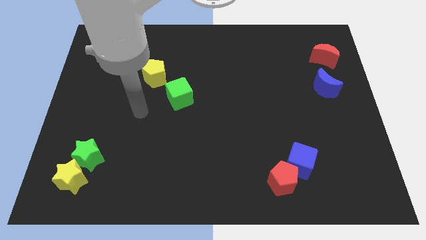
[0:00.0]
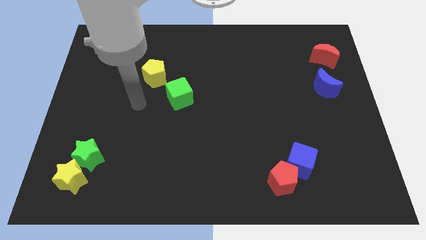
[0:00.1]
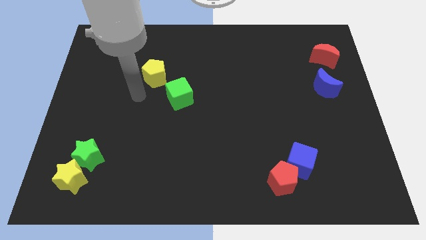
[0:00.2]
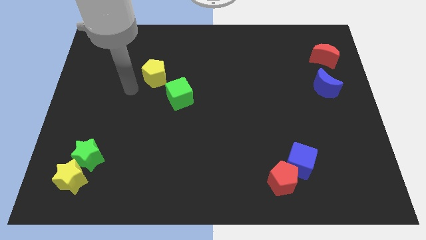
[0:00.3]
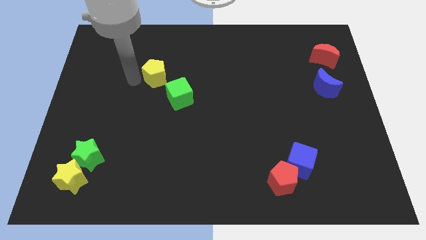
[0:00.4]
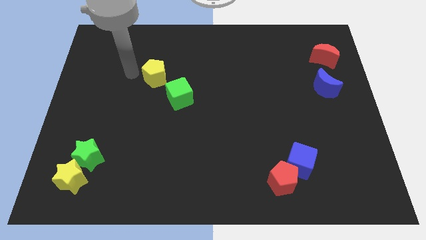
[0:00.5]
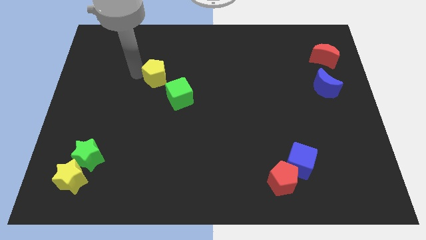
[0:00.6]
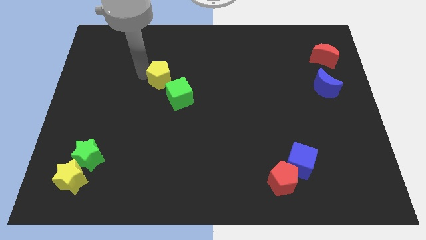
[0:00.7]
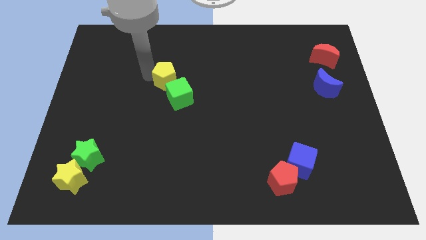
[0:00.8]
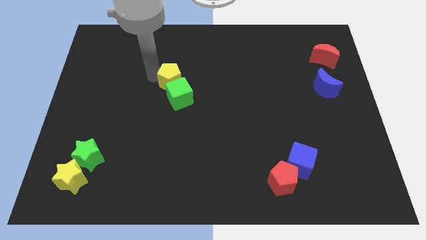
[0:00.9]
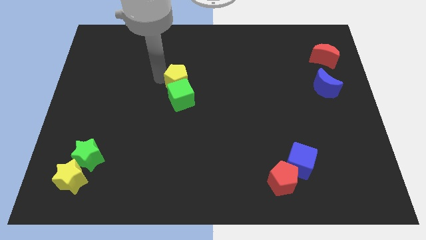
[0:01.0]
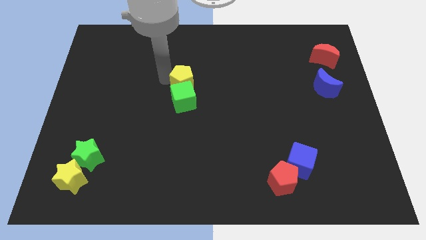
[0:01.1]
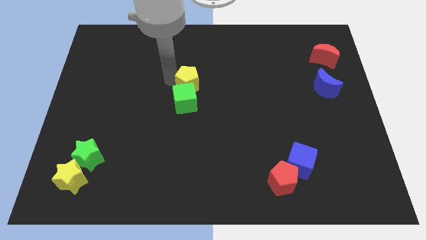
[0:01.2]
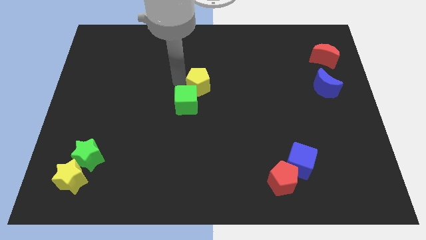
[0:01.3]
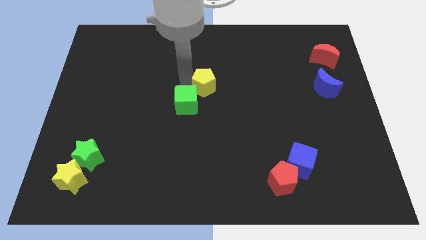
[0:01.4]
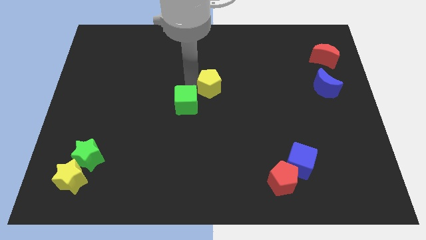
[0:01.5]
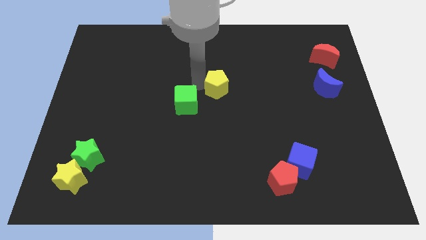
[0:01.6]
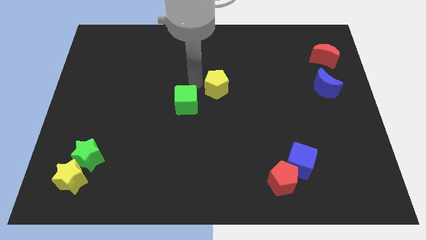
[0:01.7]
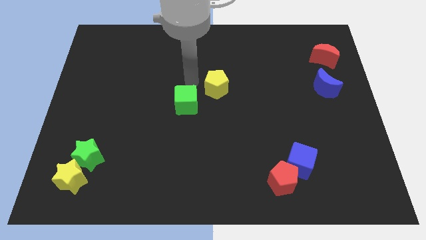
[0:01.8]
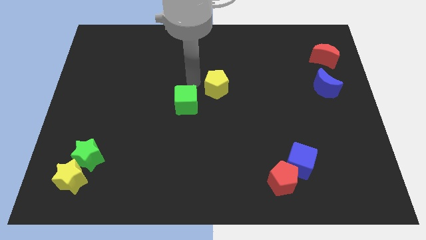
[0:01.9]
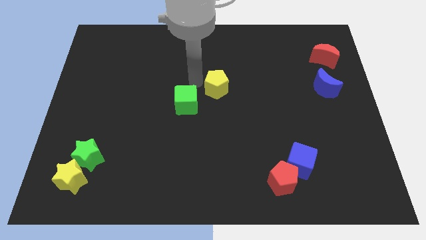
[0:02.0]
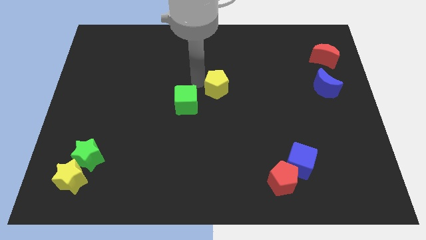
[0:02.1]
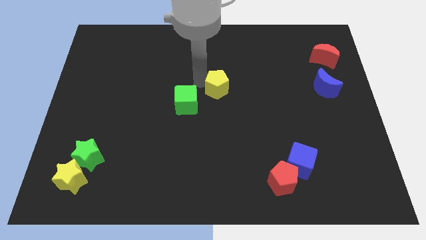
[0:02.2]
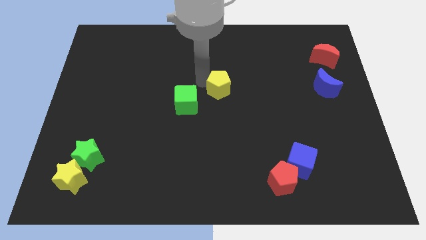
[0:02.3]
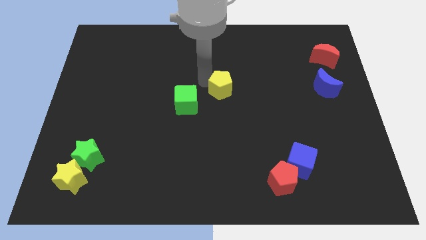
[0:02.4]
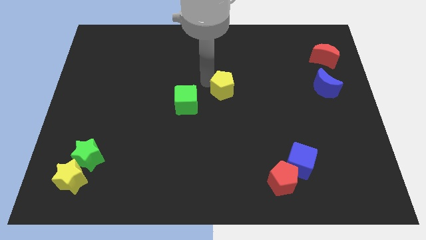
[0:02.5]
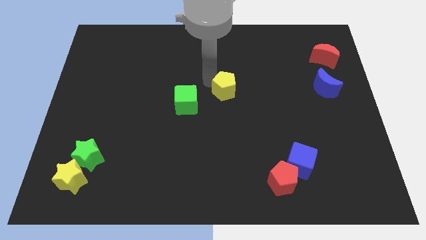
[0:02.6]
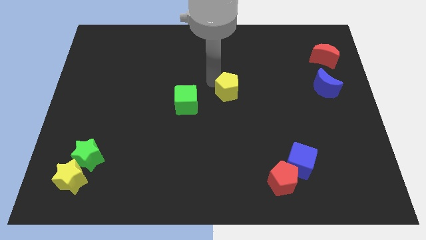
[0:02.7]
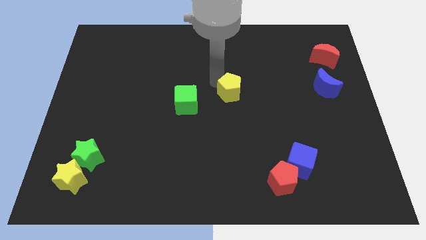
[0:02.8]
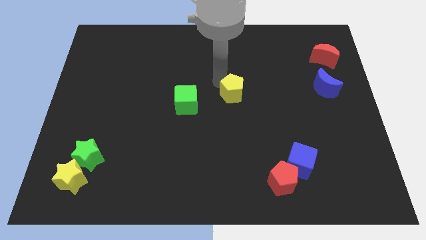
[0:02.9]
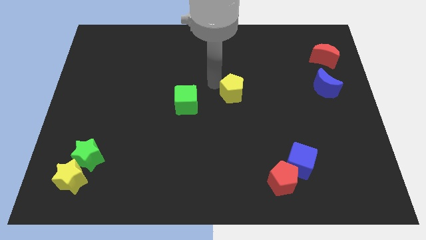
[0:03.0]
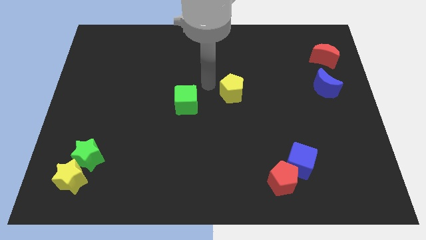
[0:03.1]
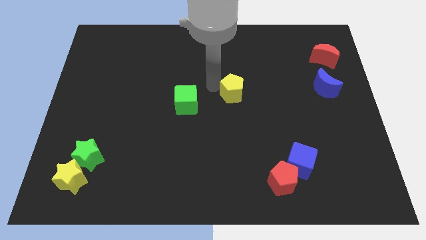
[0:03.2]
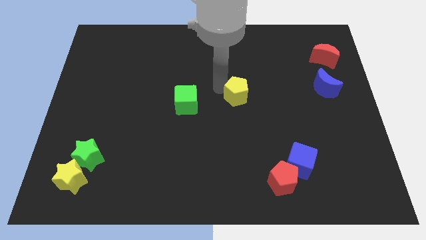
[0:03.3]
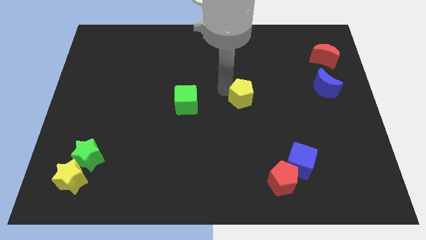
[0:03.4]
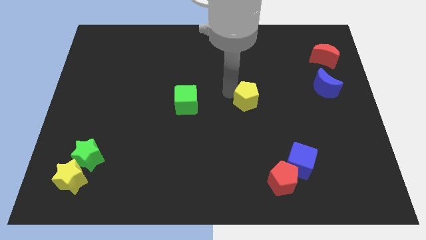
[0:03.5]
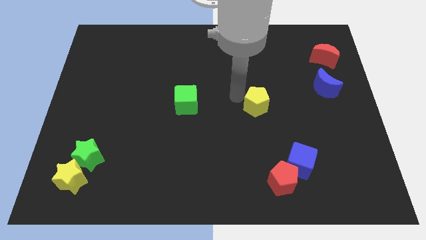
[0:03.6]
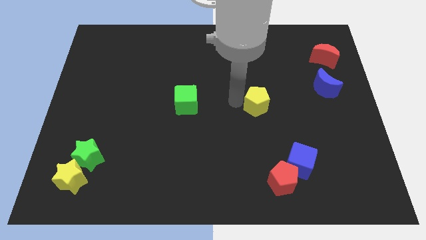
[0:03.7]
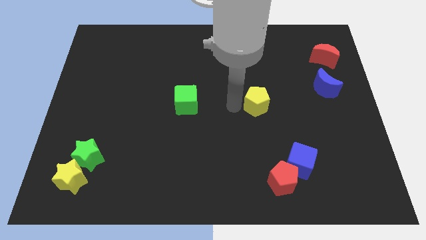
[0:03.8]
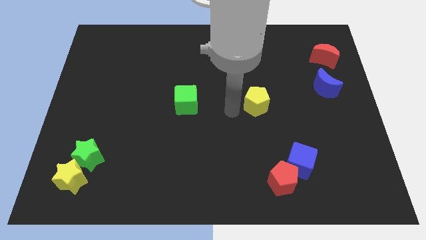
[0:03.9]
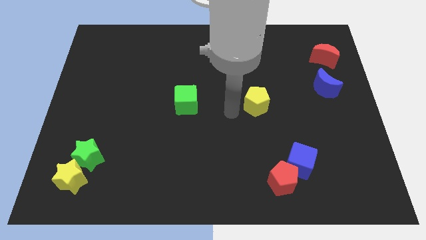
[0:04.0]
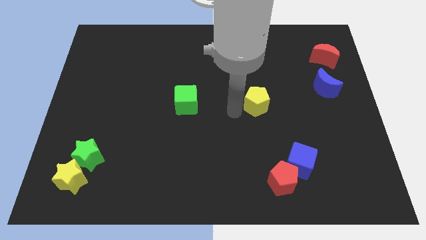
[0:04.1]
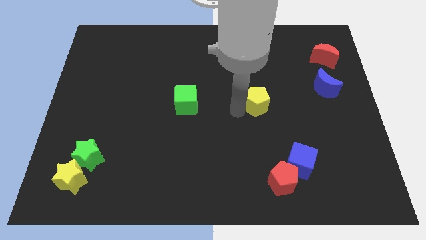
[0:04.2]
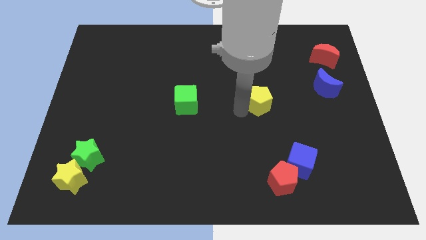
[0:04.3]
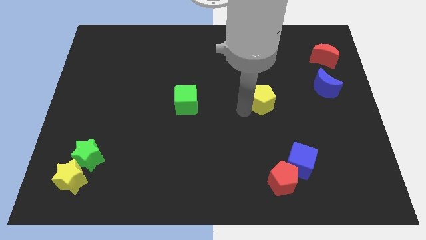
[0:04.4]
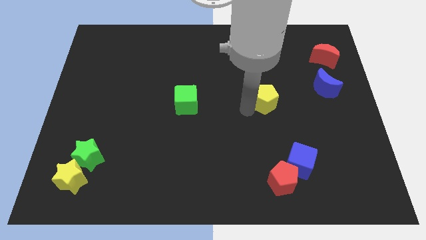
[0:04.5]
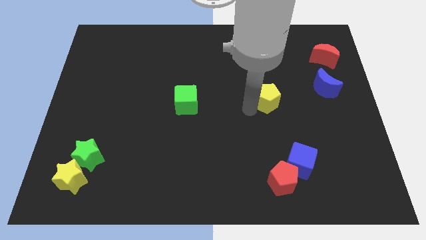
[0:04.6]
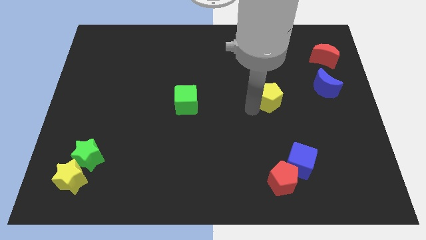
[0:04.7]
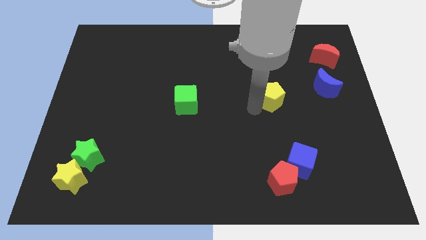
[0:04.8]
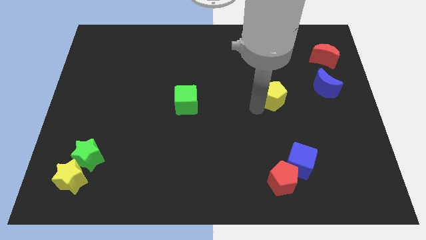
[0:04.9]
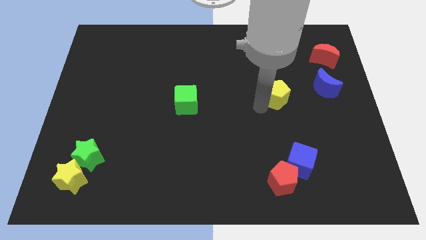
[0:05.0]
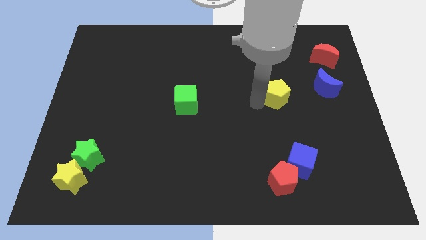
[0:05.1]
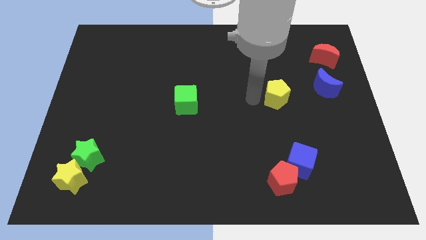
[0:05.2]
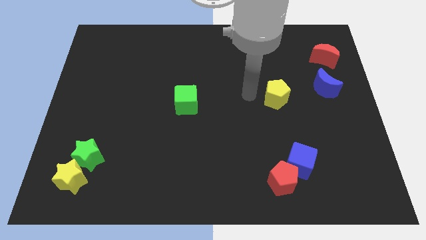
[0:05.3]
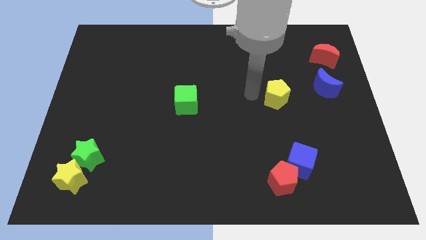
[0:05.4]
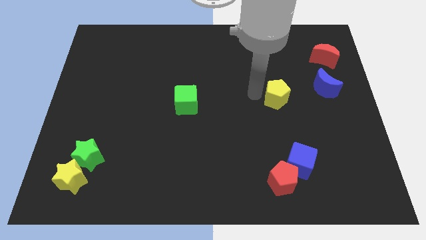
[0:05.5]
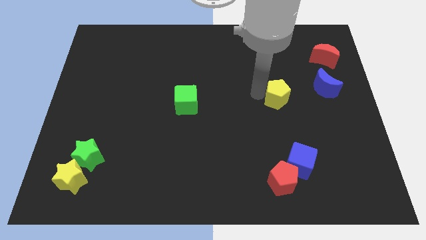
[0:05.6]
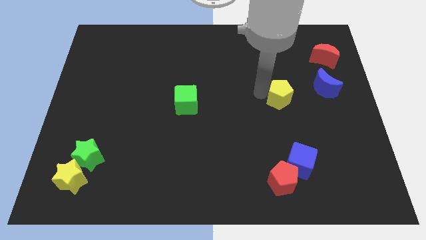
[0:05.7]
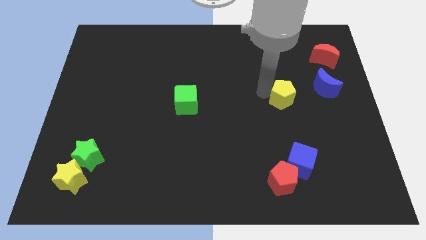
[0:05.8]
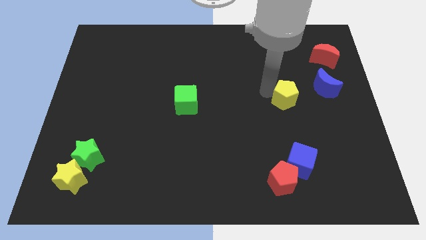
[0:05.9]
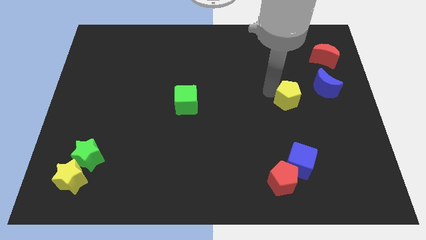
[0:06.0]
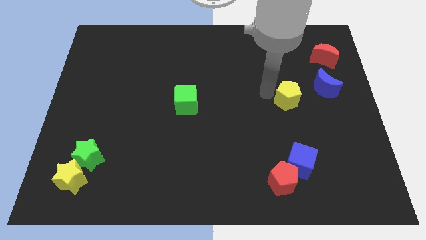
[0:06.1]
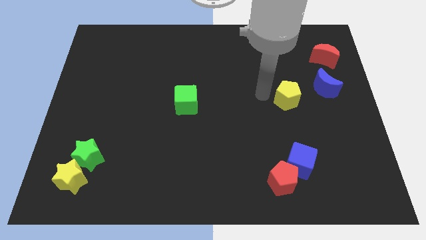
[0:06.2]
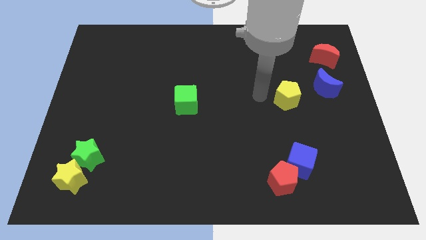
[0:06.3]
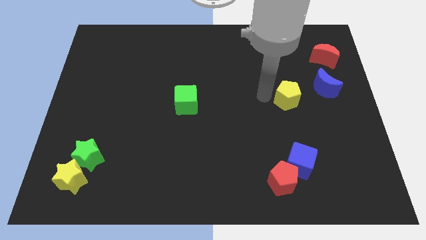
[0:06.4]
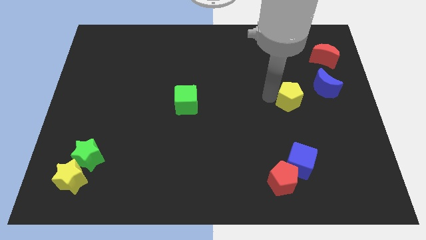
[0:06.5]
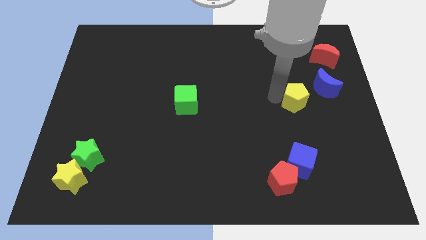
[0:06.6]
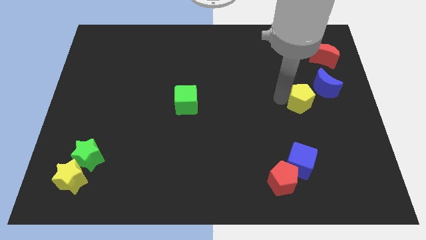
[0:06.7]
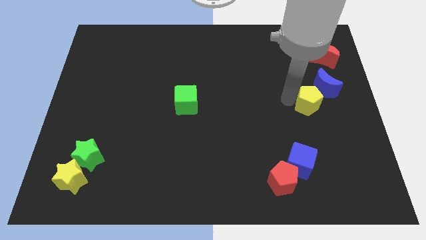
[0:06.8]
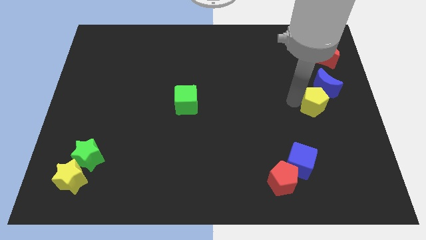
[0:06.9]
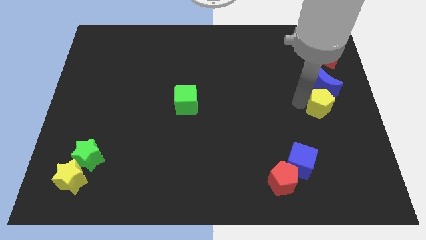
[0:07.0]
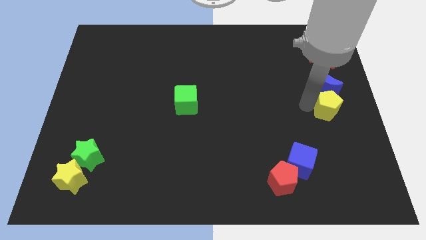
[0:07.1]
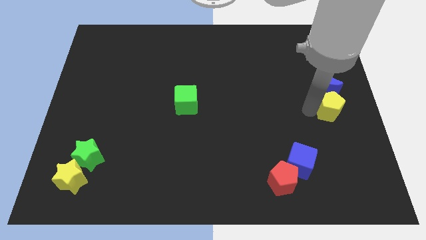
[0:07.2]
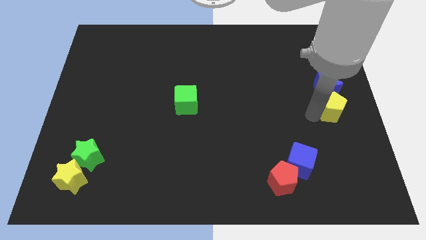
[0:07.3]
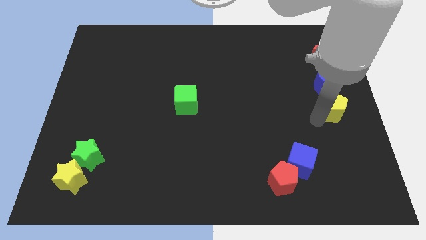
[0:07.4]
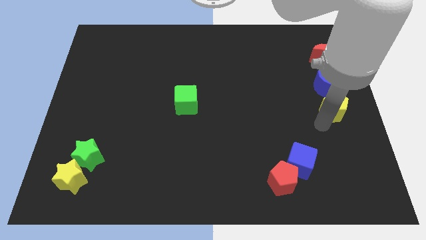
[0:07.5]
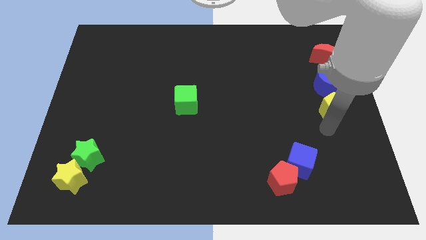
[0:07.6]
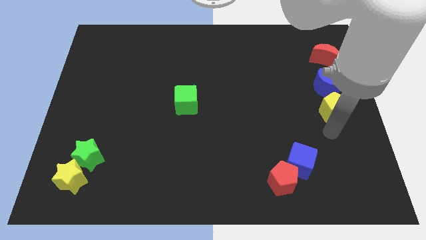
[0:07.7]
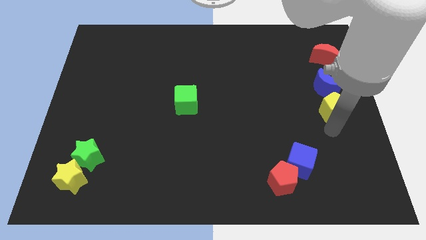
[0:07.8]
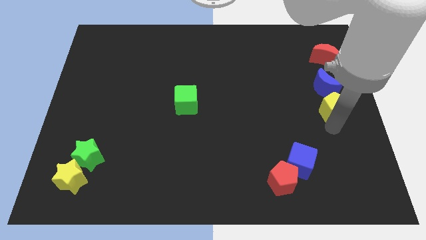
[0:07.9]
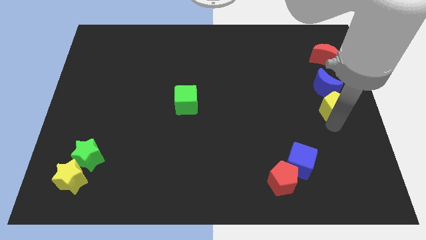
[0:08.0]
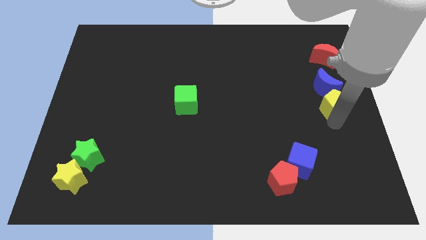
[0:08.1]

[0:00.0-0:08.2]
slide the yellow pentagon below the red moon
